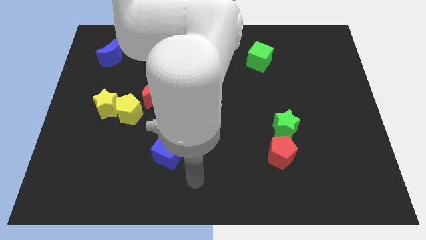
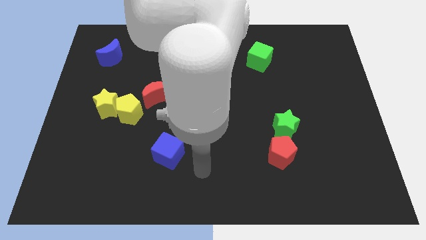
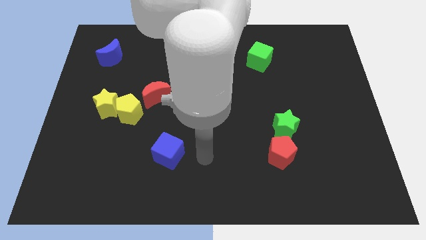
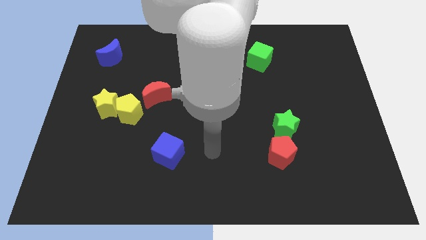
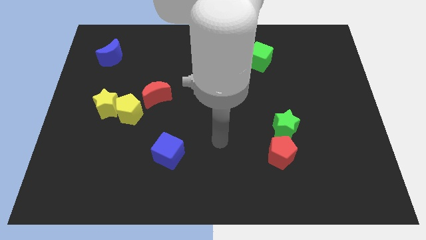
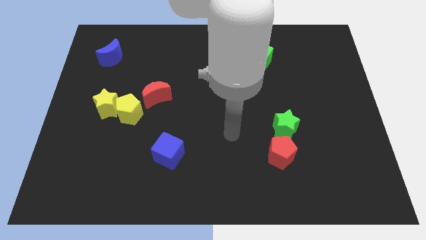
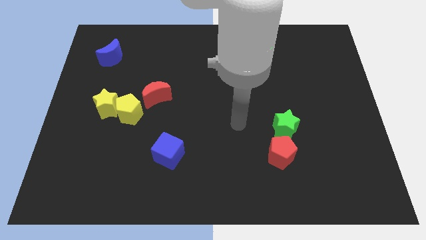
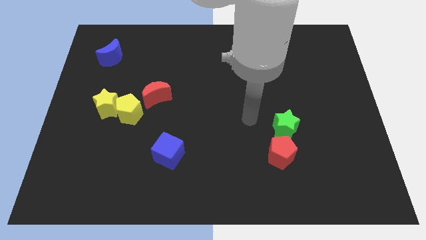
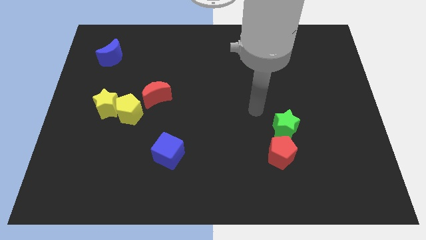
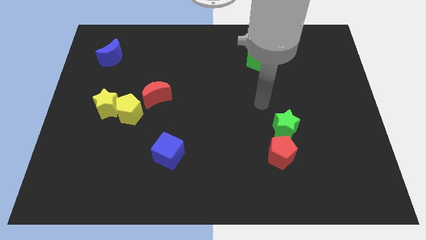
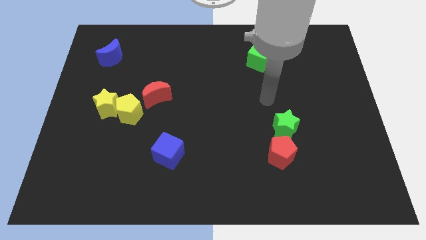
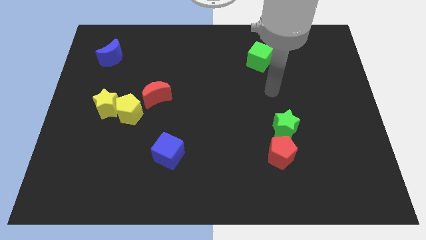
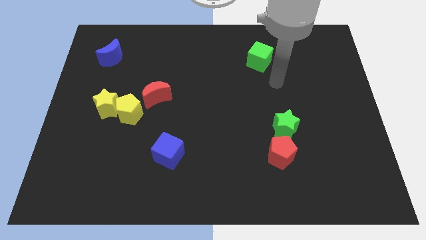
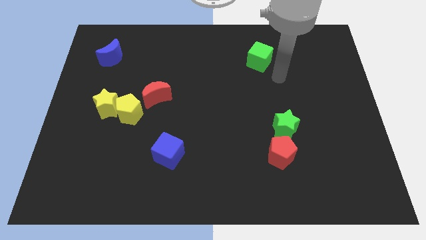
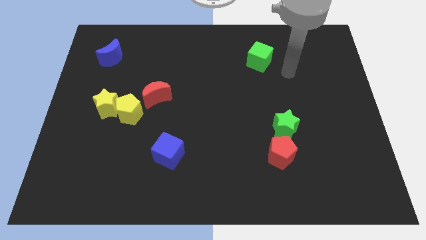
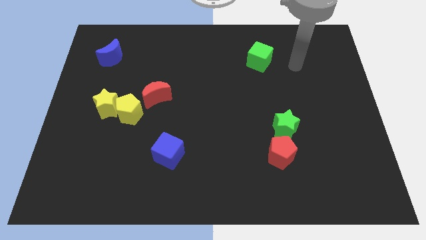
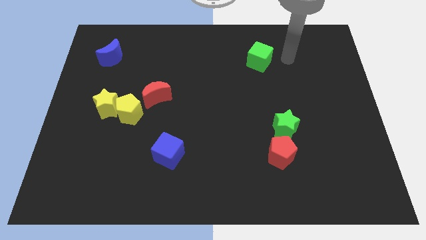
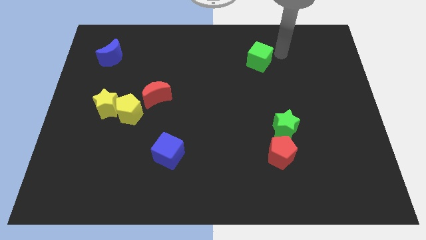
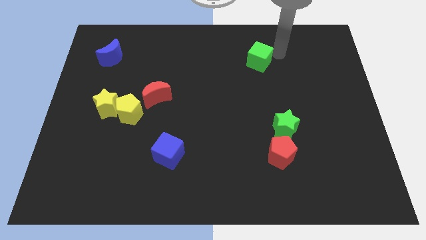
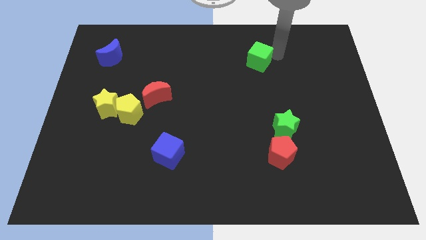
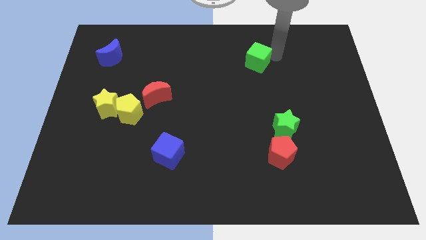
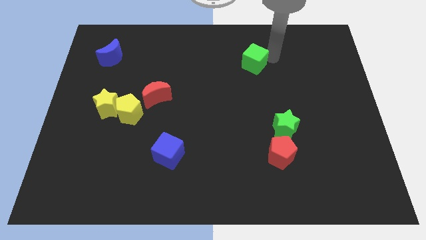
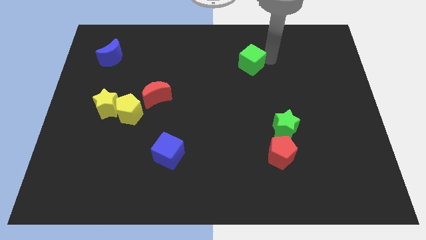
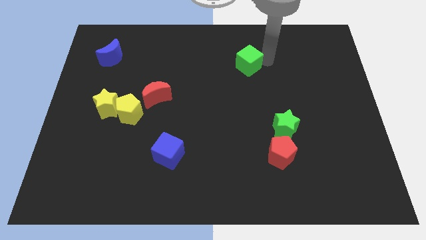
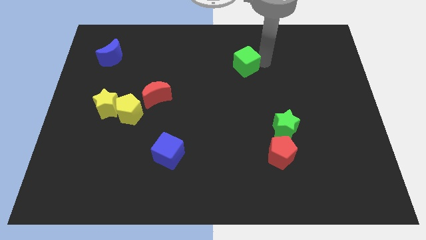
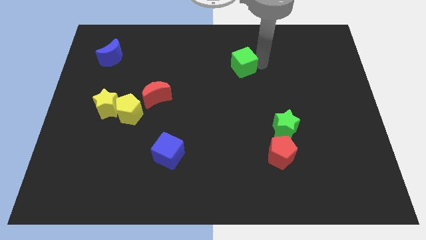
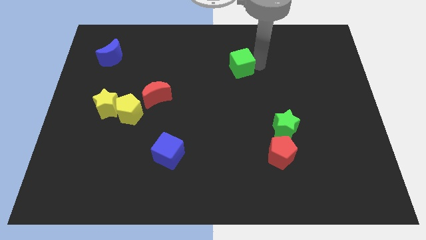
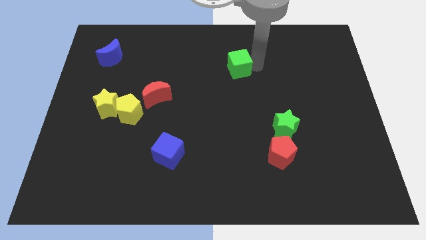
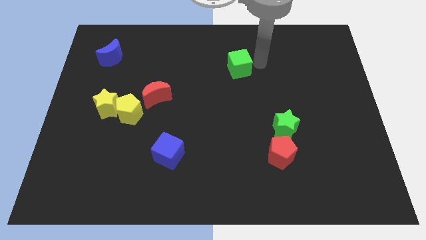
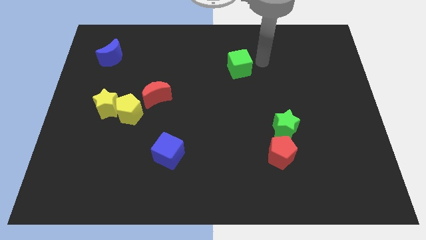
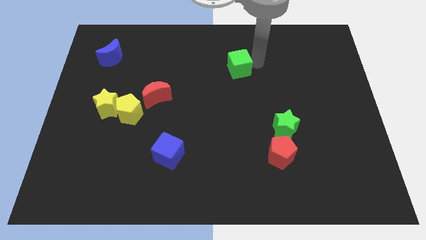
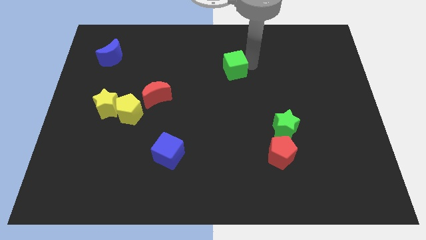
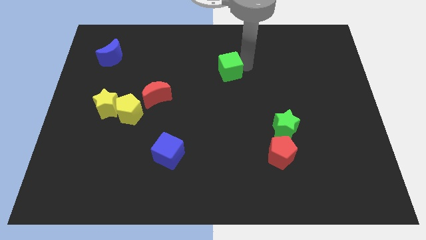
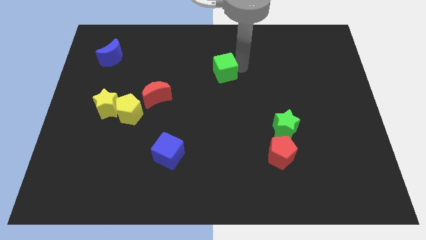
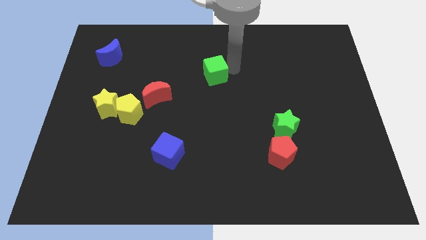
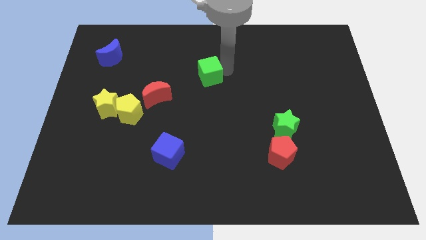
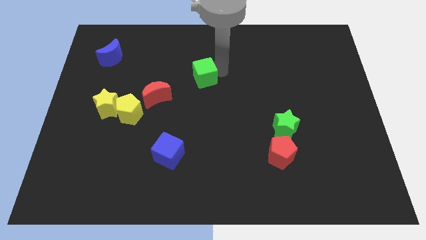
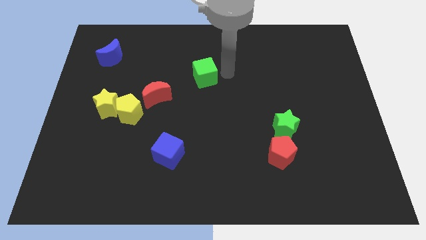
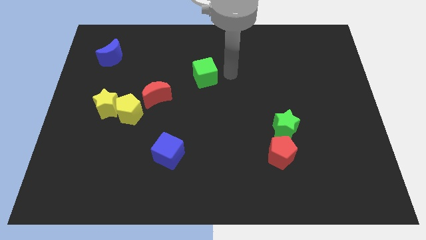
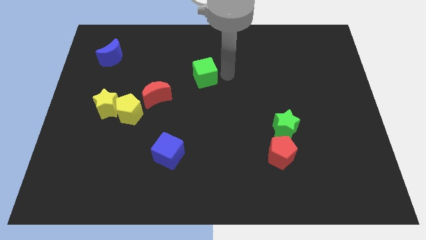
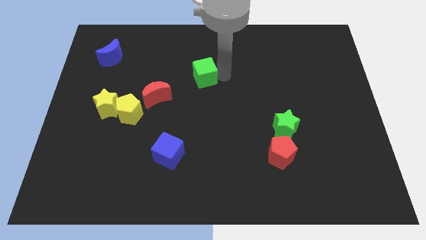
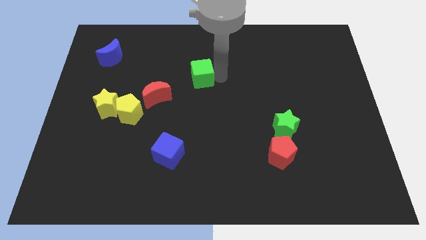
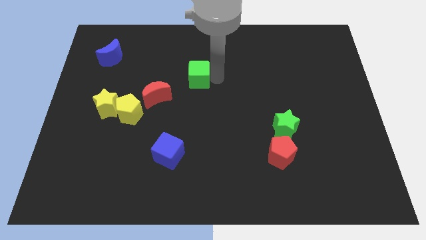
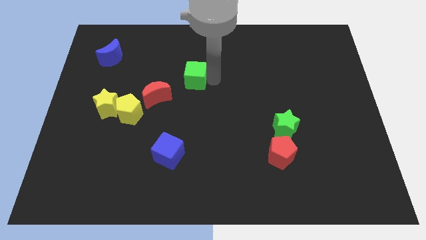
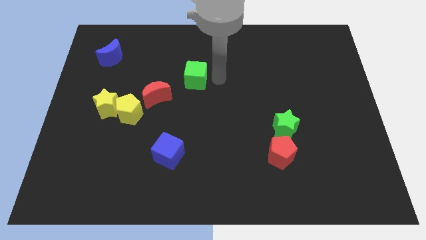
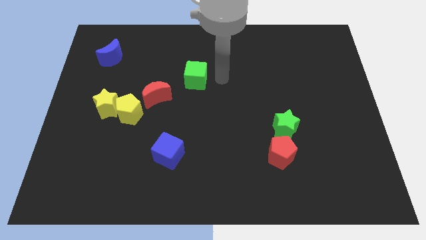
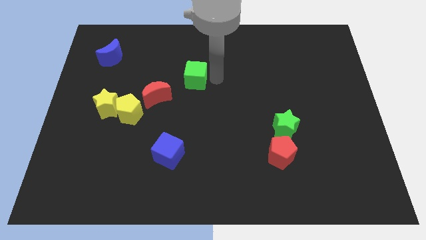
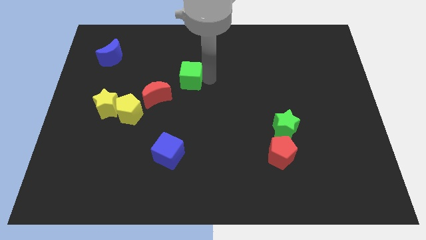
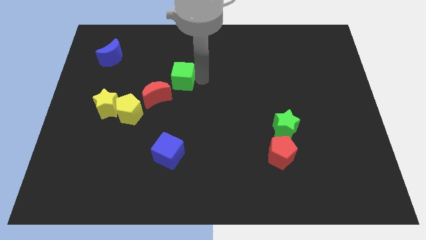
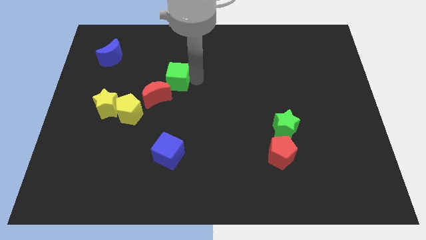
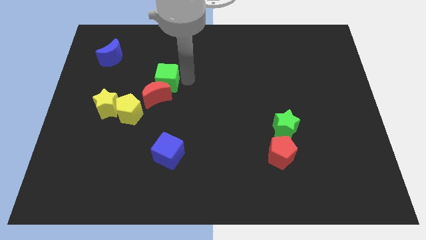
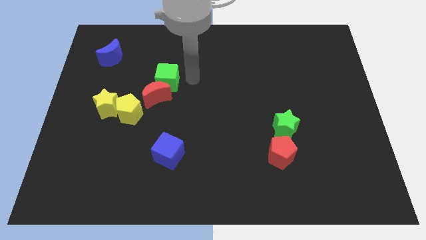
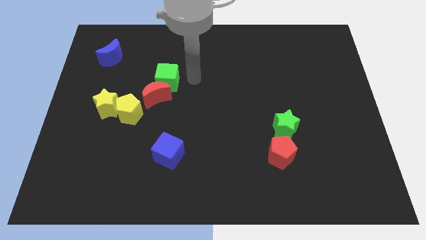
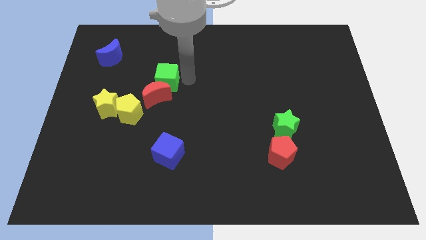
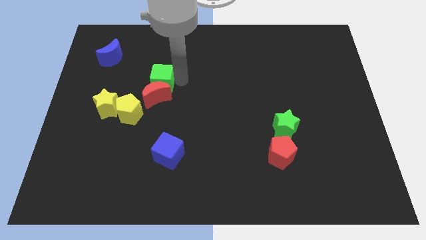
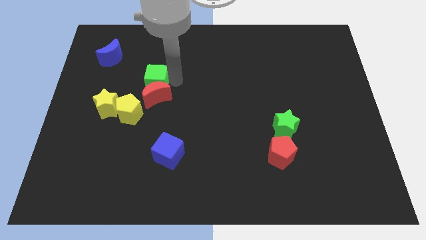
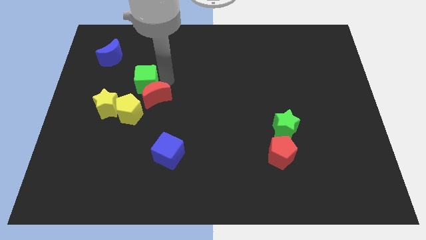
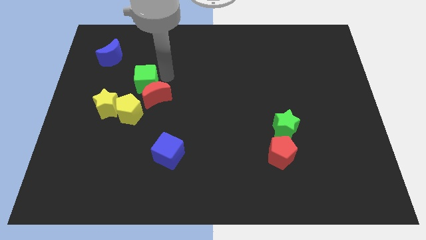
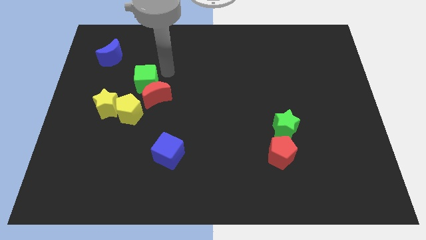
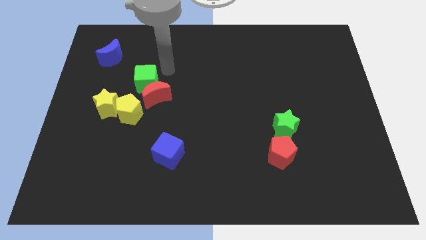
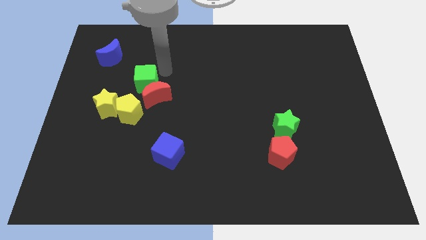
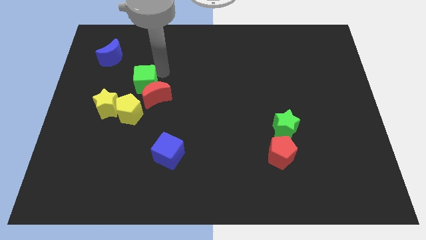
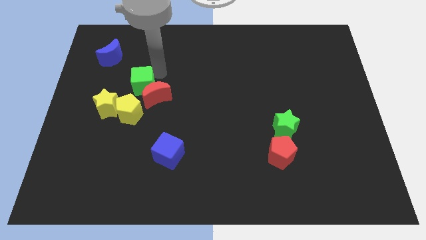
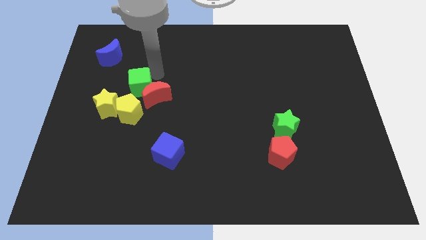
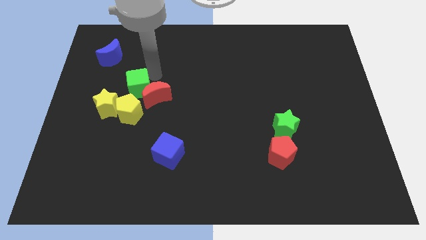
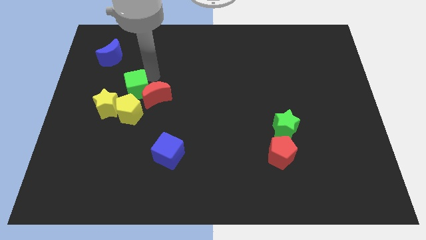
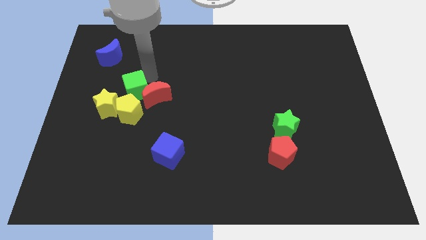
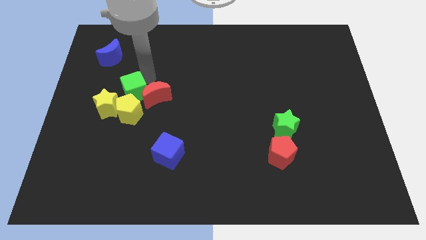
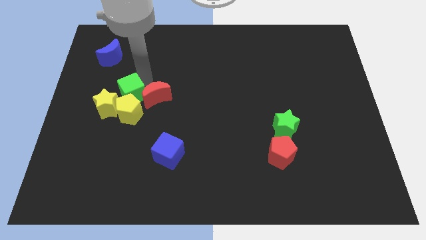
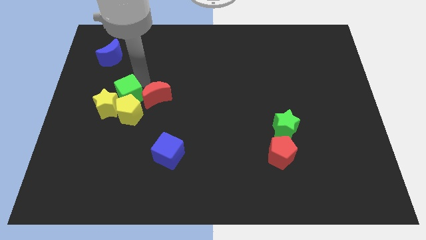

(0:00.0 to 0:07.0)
push the green cube towards the yellow star
